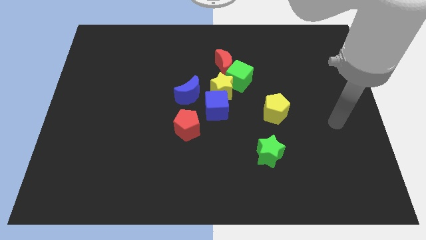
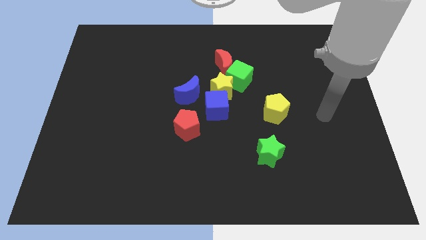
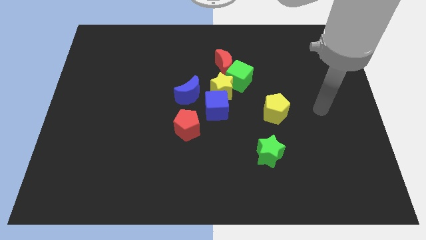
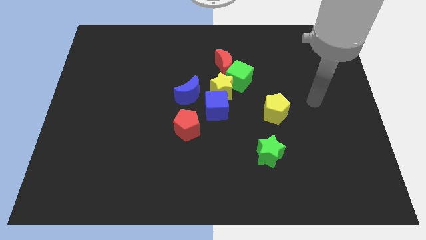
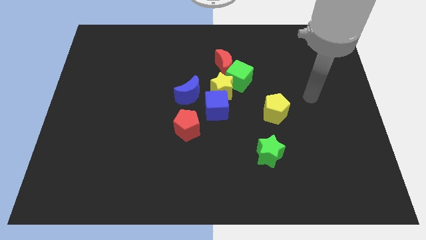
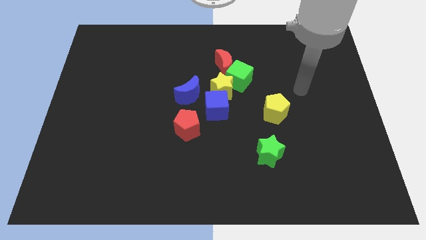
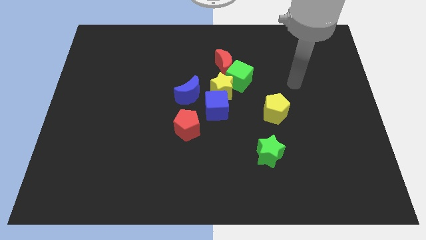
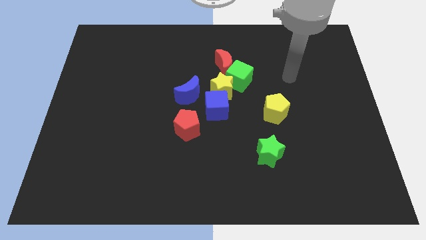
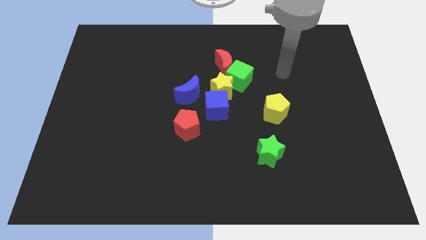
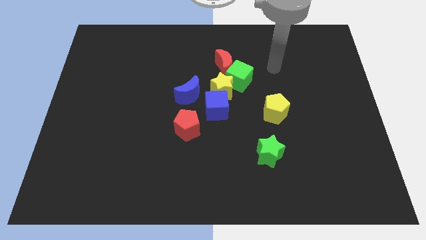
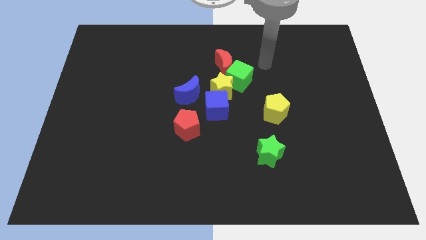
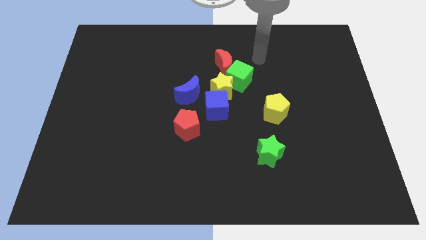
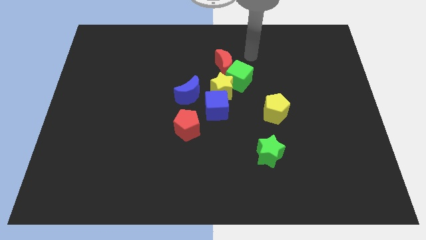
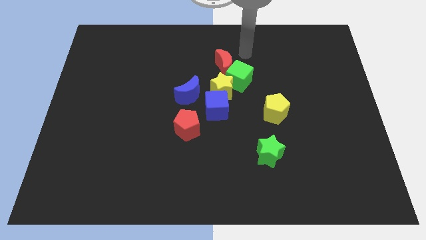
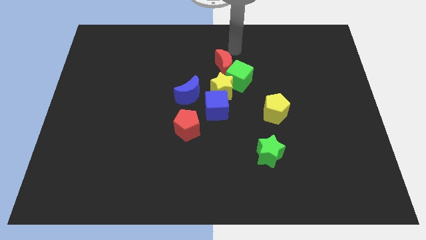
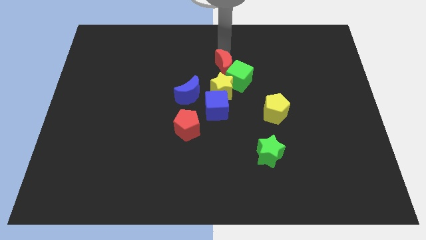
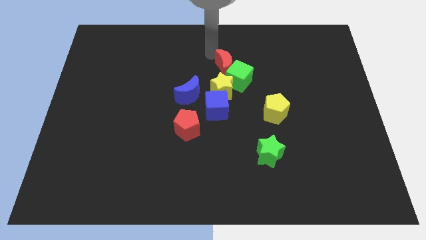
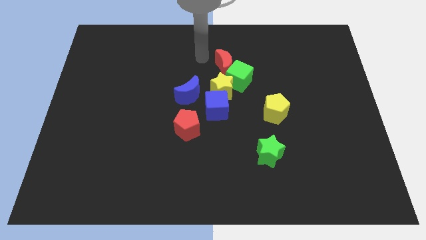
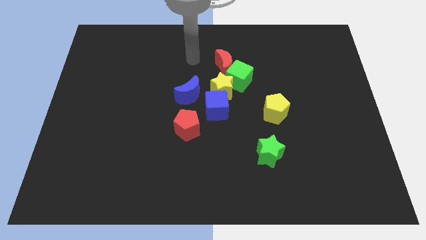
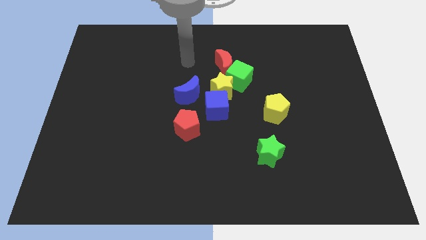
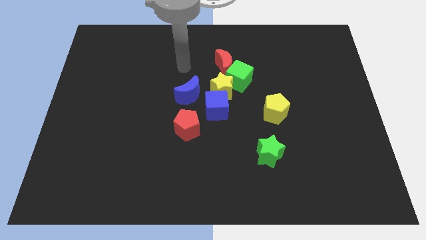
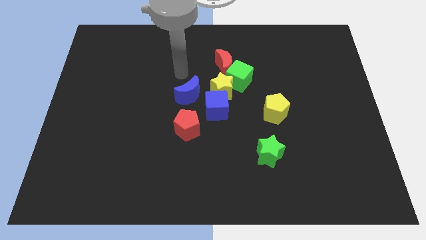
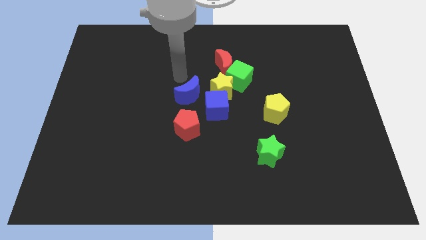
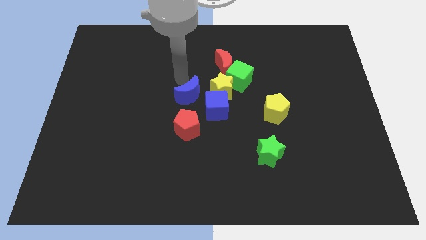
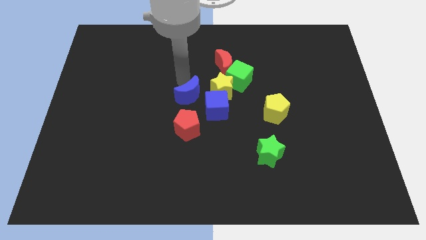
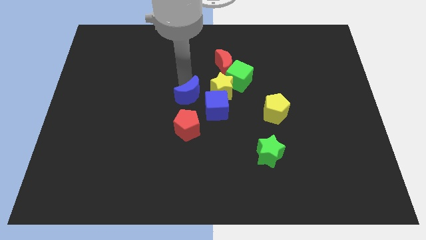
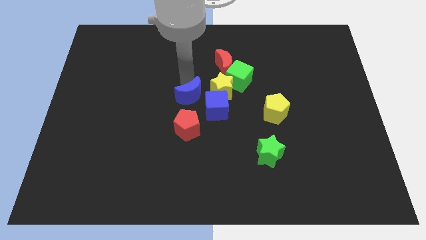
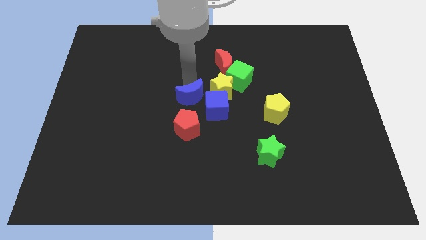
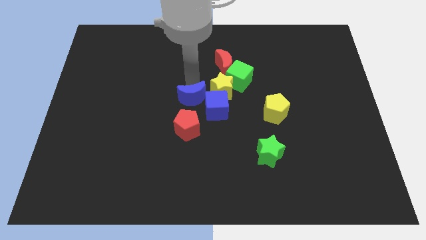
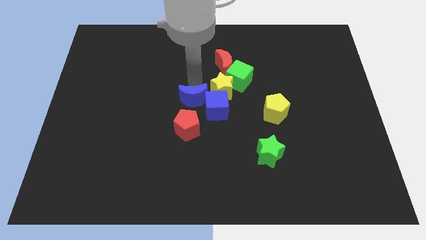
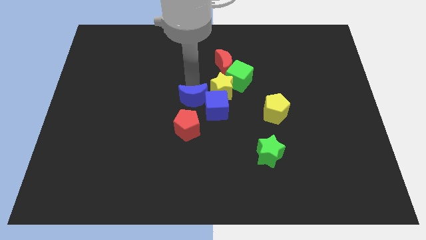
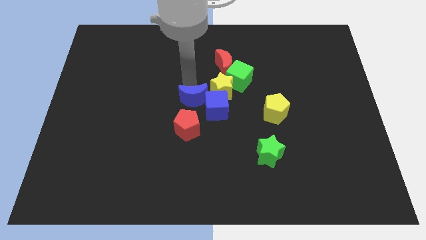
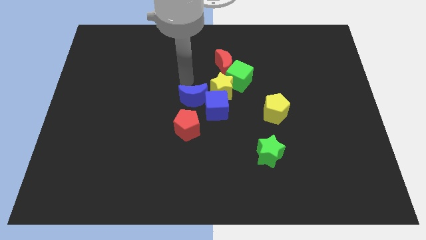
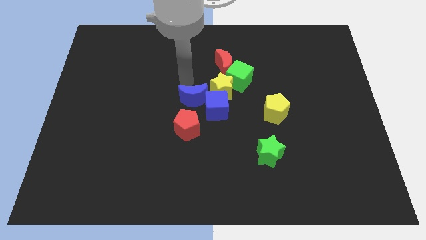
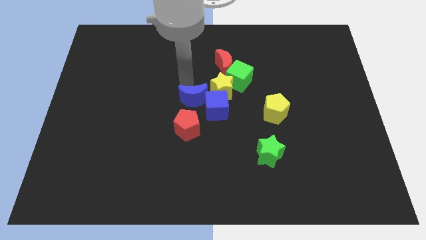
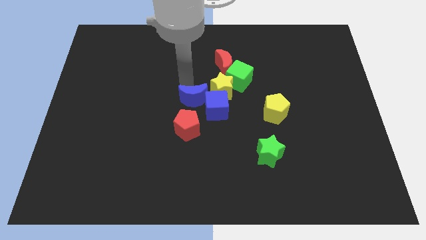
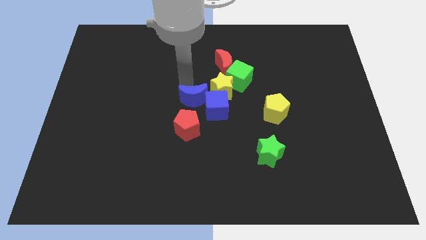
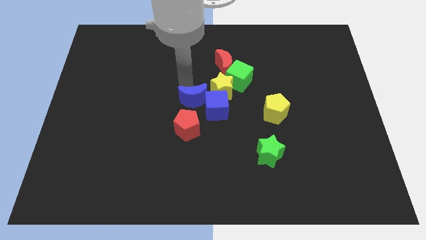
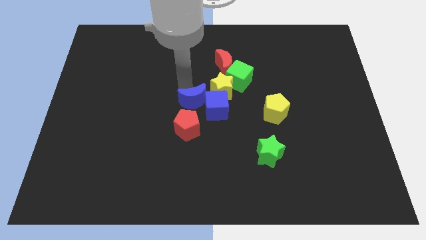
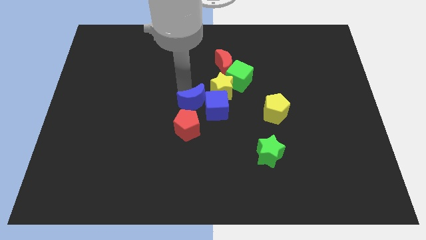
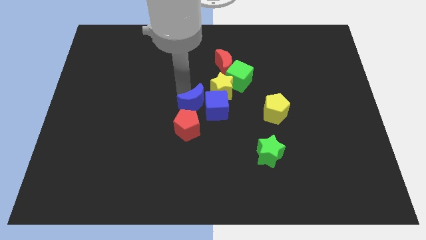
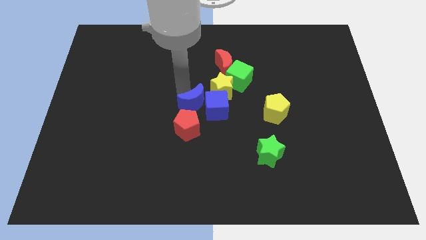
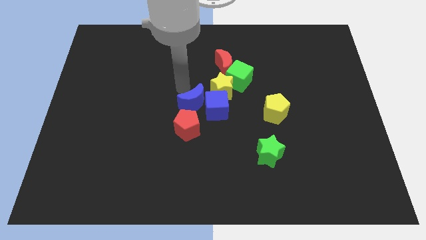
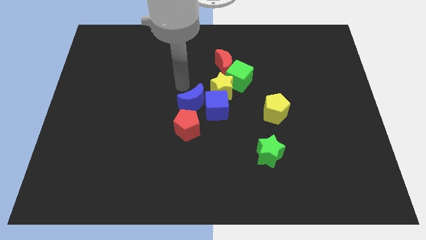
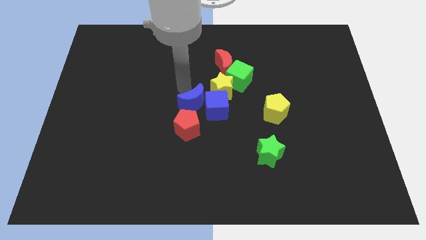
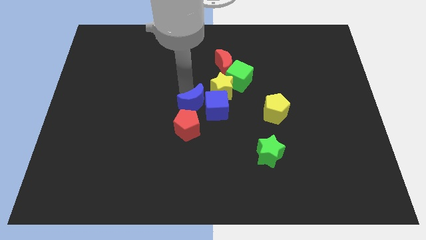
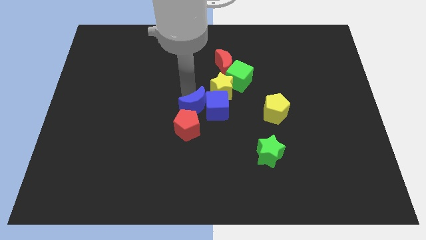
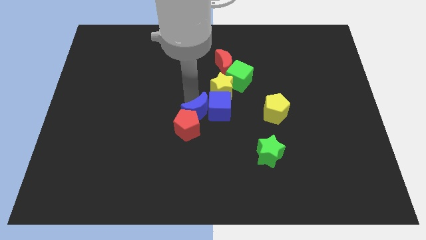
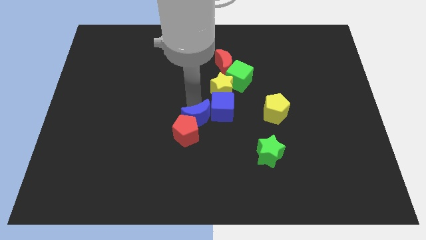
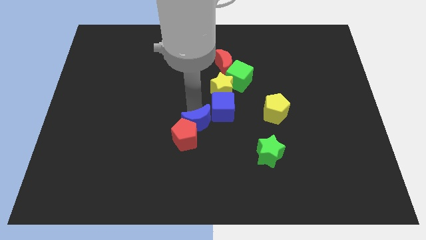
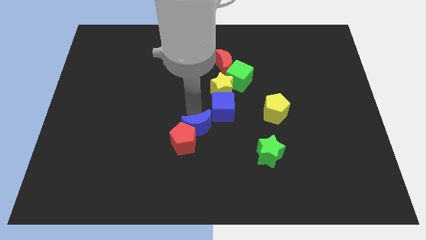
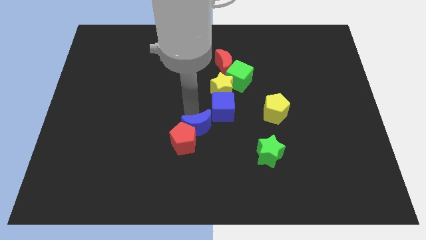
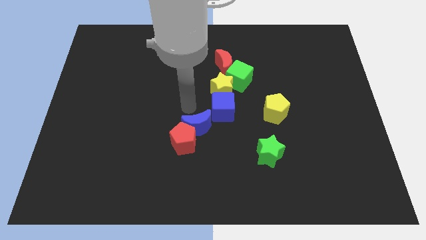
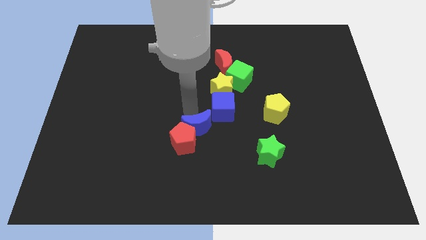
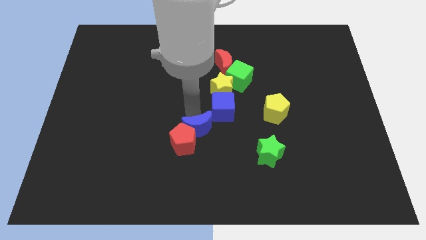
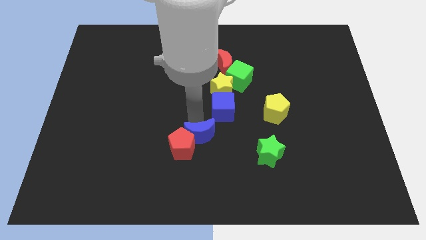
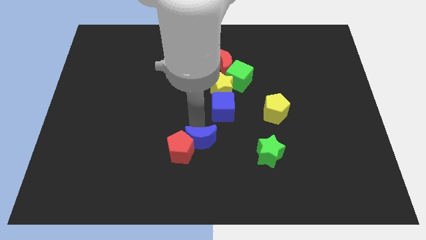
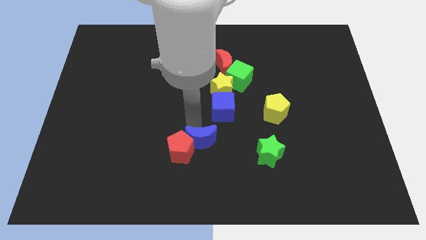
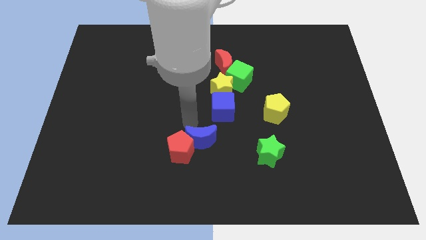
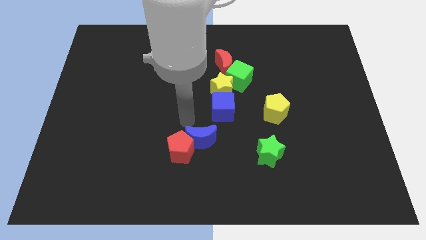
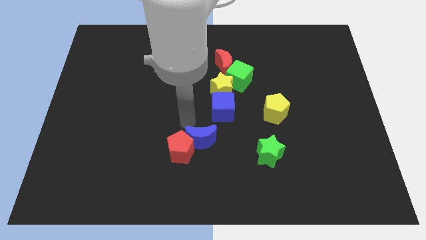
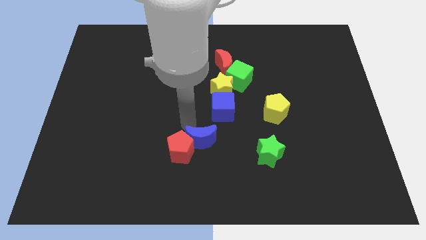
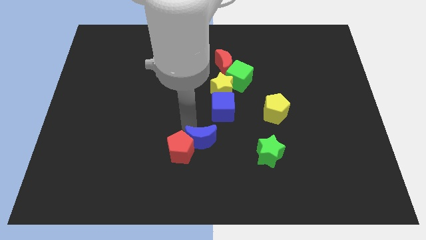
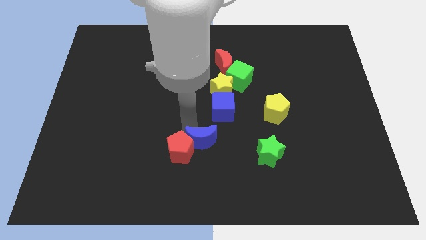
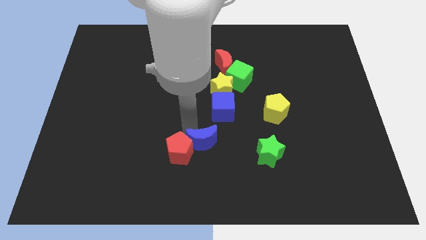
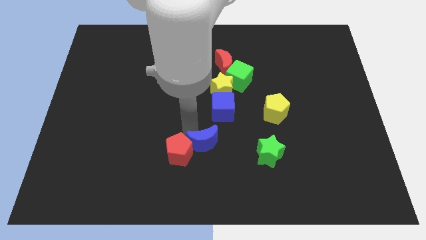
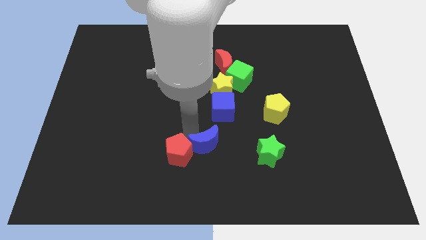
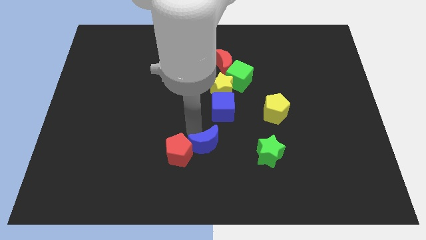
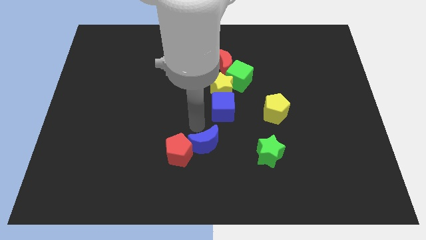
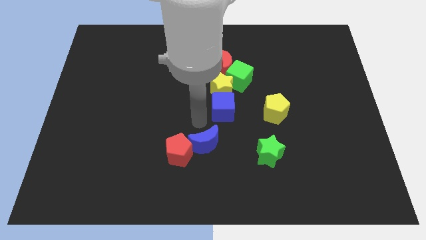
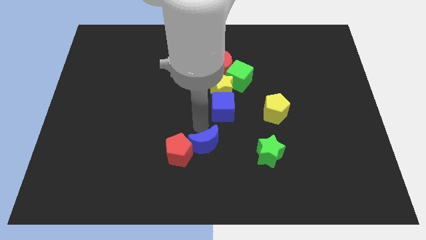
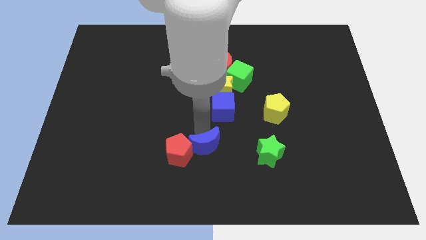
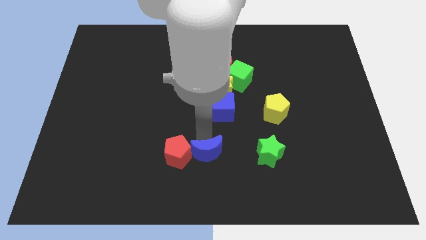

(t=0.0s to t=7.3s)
push the blue moon to the bottom side
